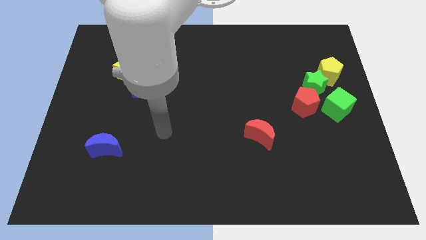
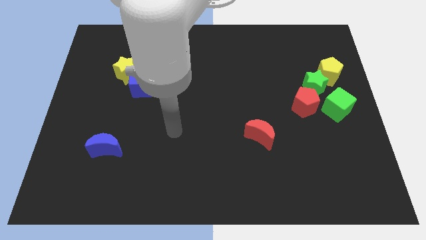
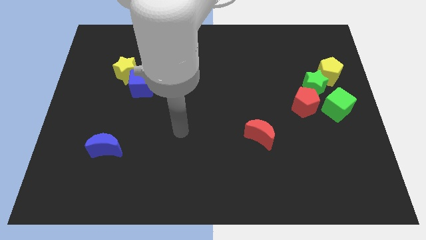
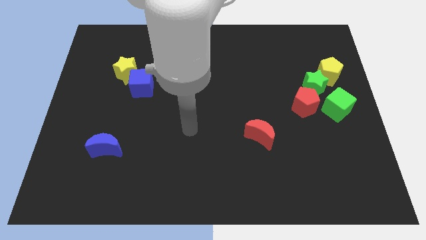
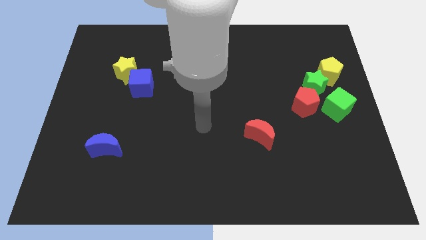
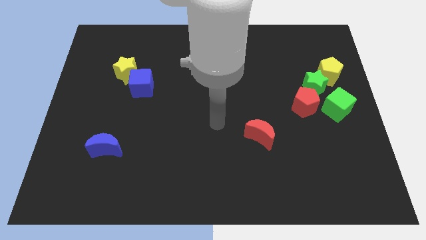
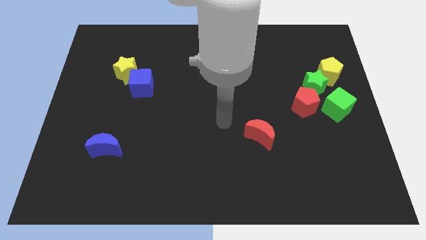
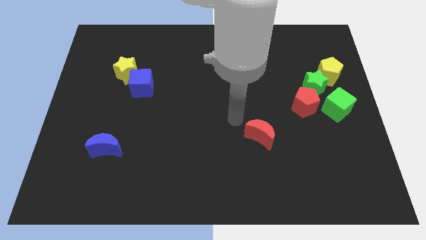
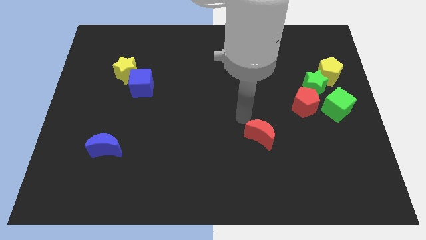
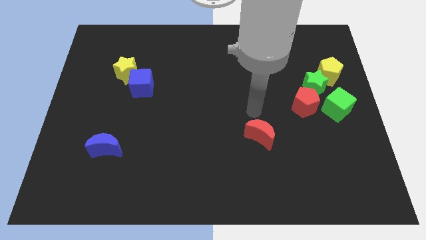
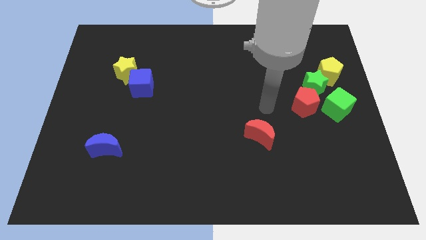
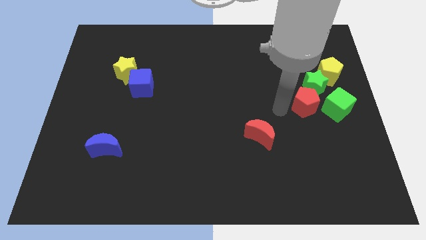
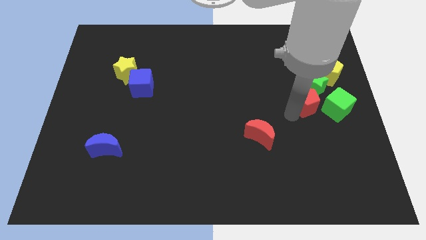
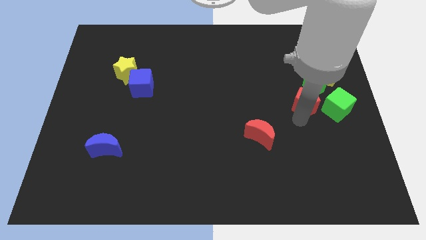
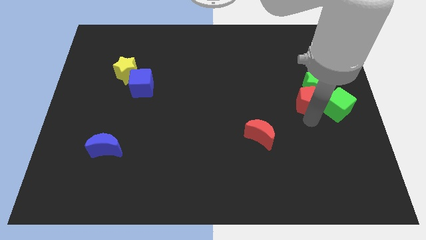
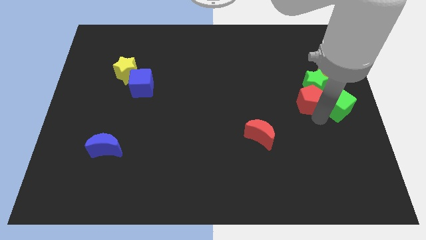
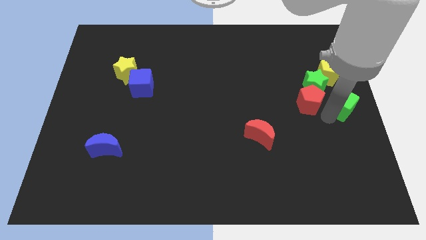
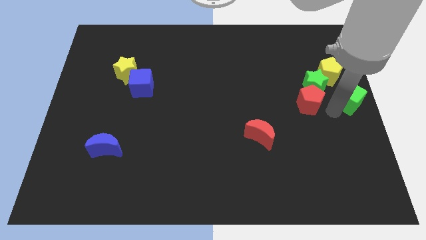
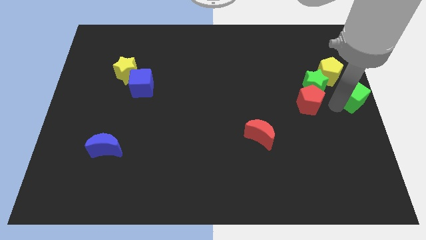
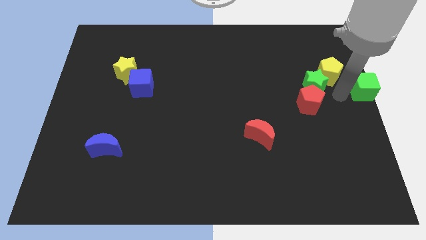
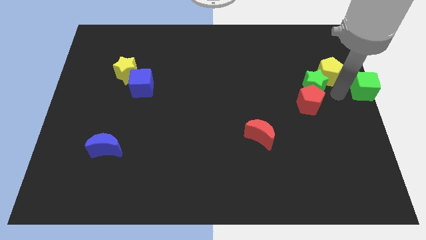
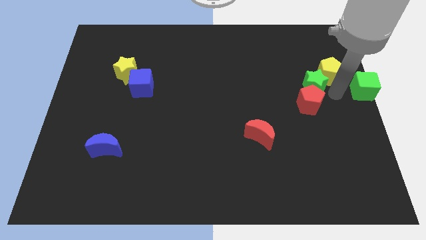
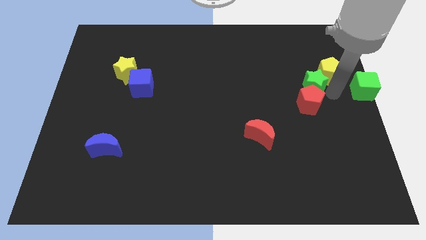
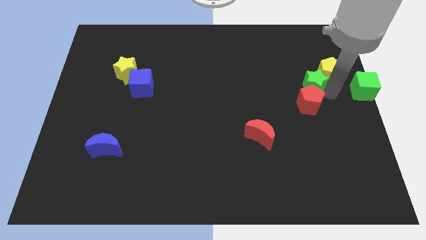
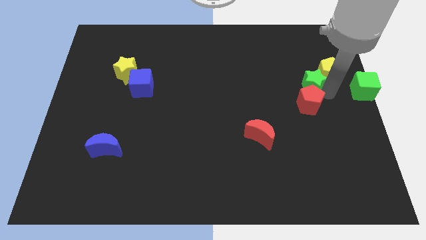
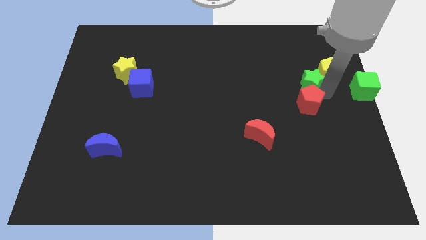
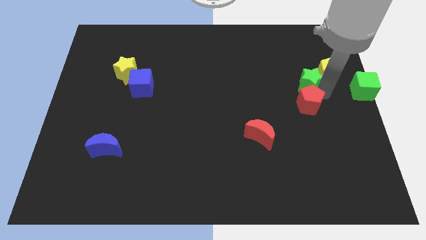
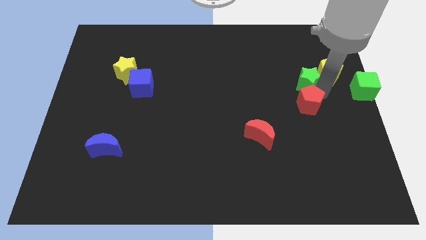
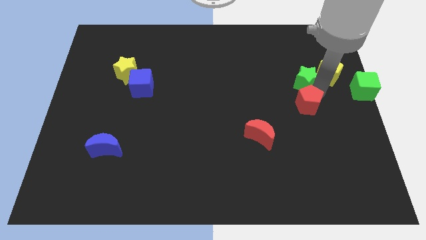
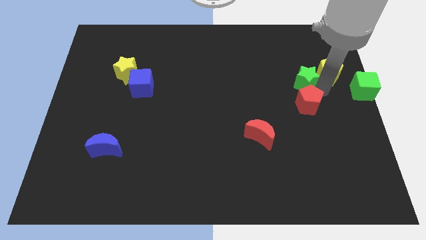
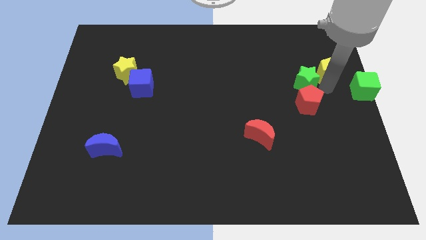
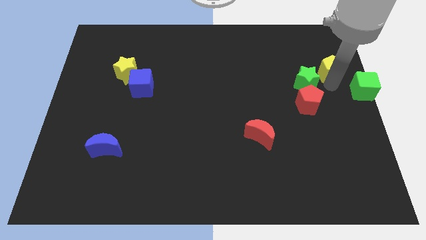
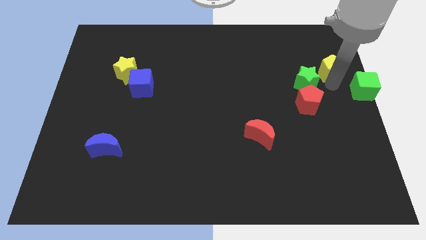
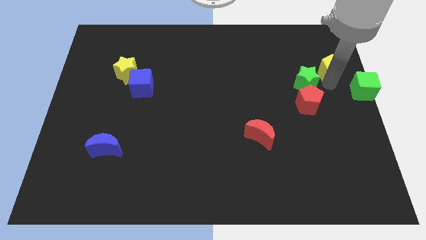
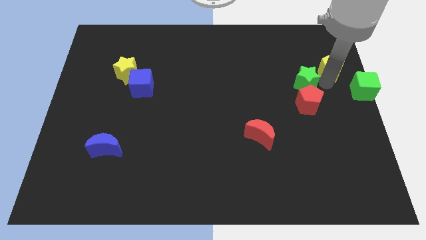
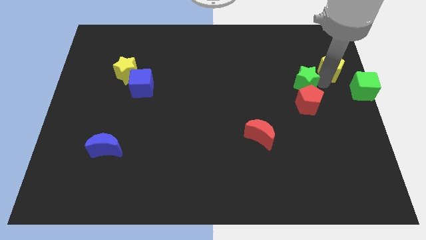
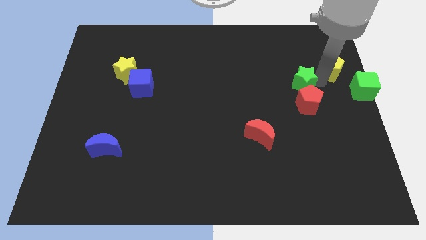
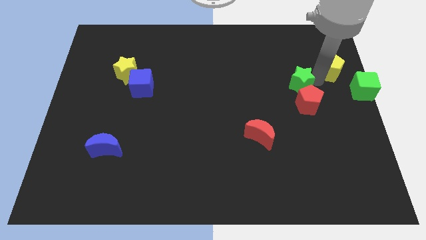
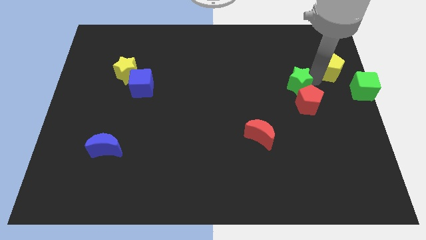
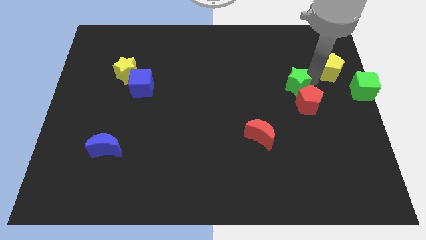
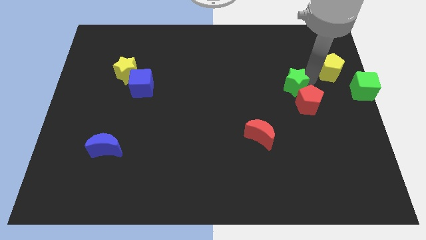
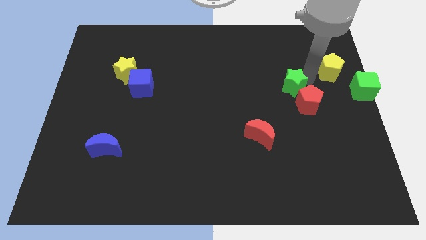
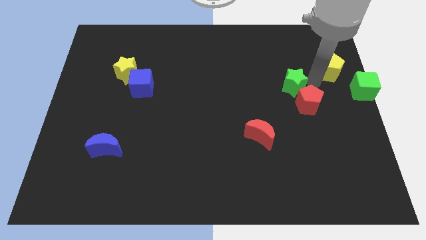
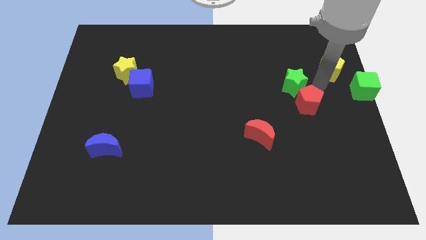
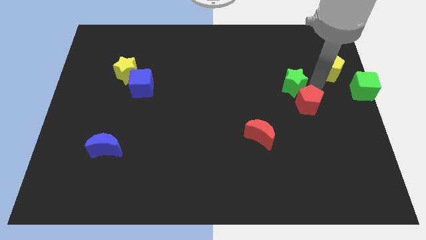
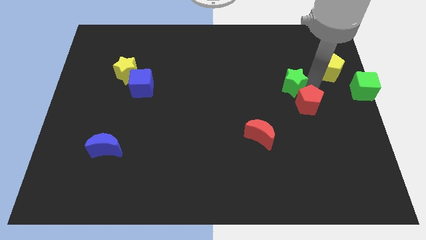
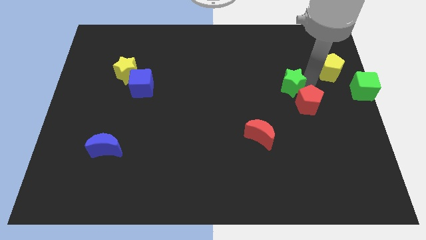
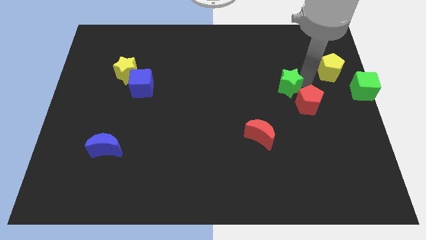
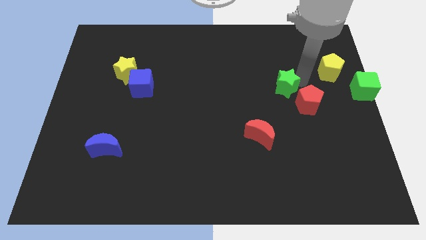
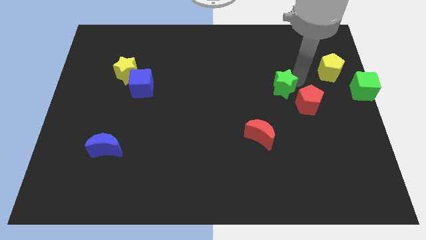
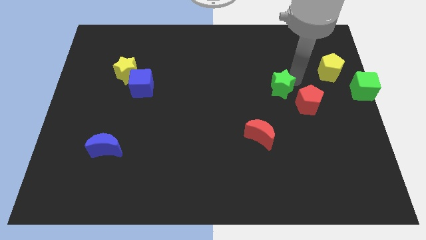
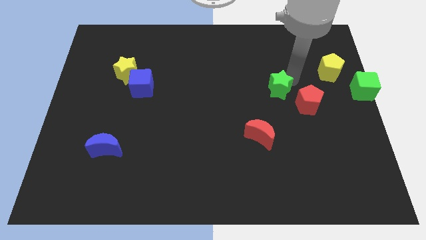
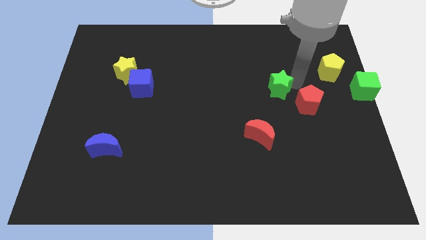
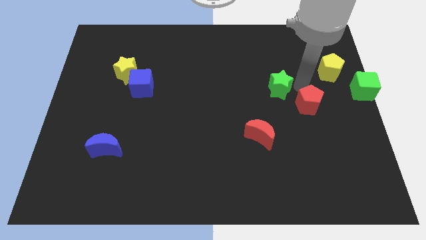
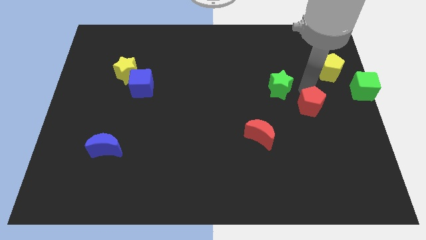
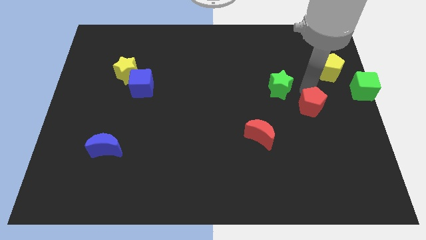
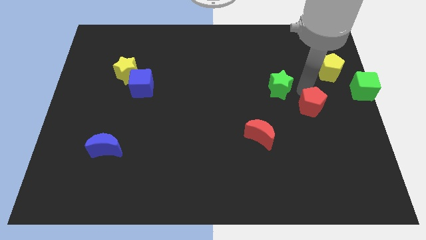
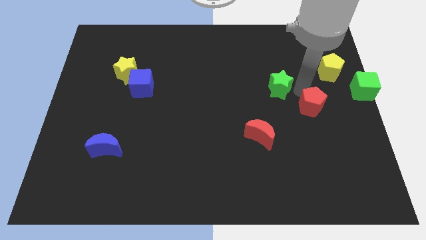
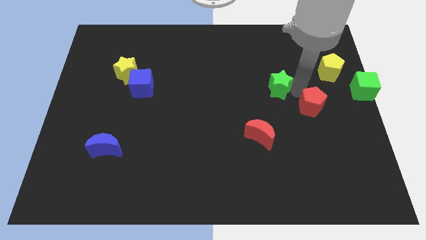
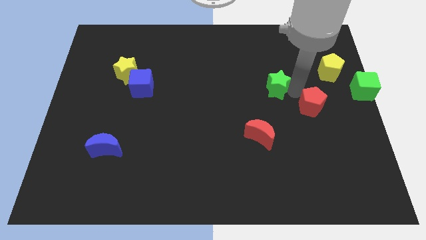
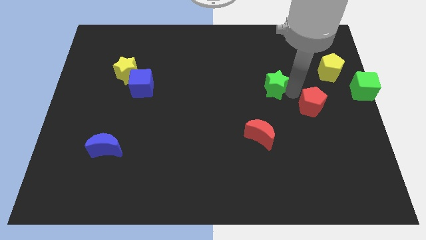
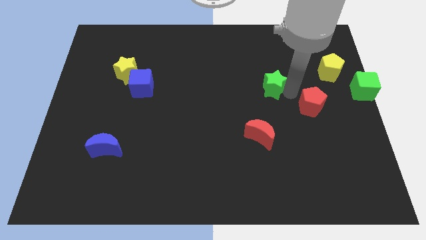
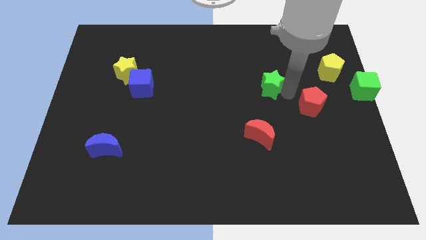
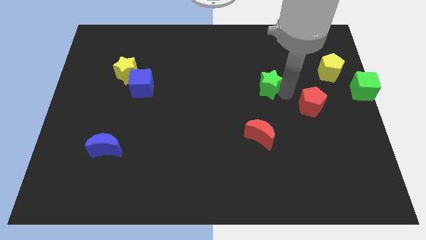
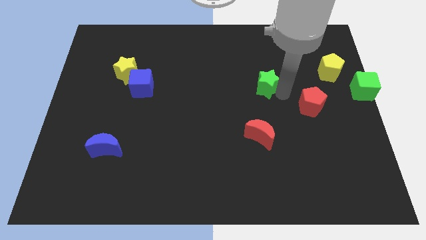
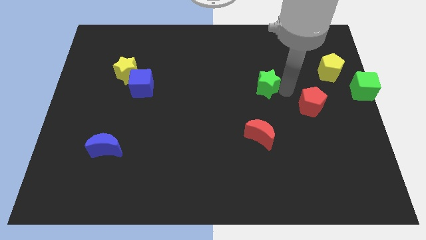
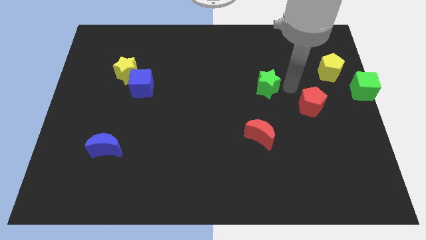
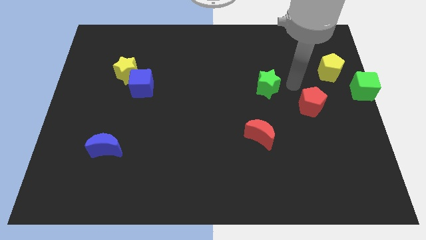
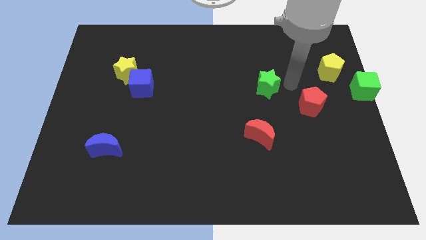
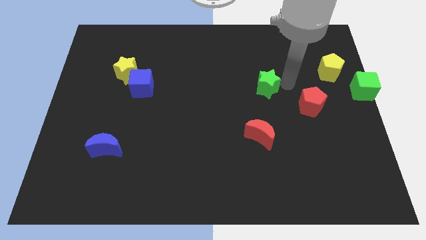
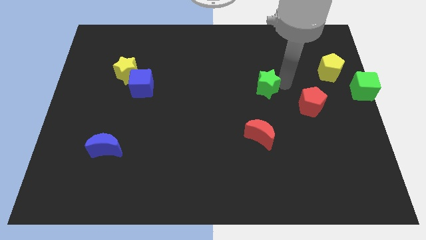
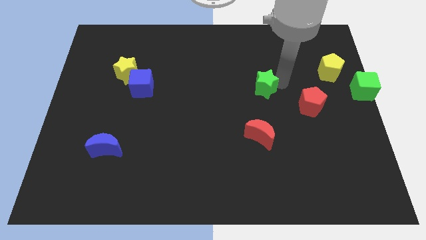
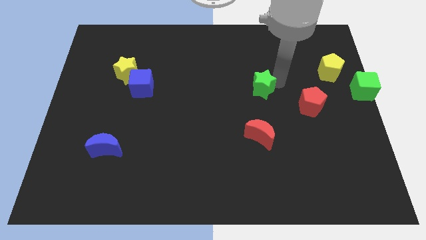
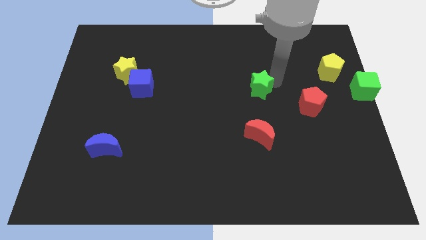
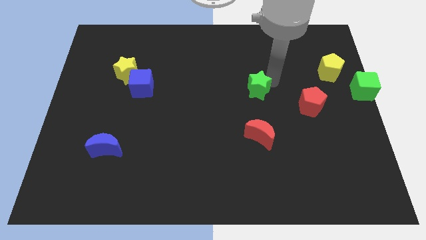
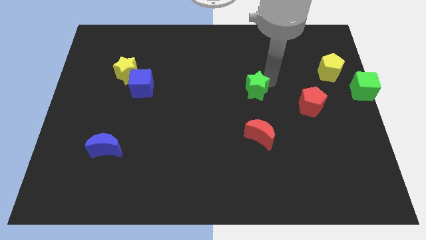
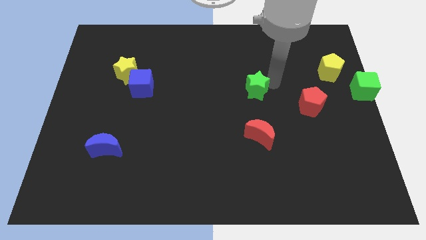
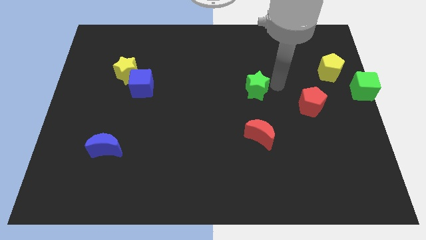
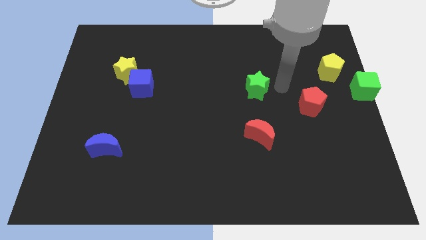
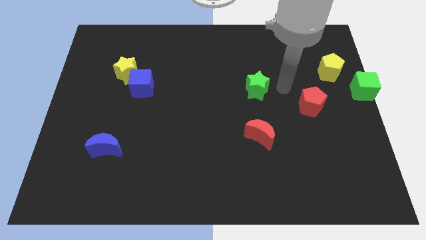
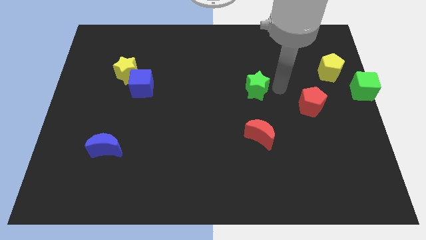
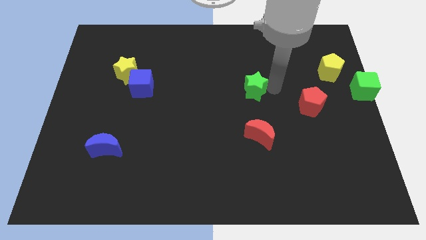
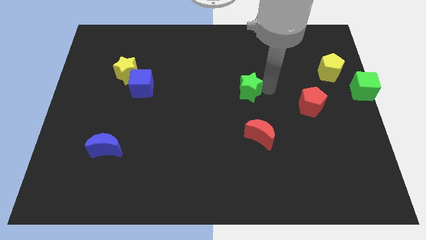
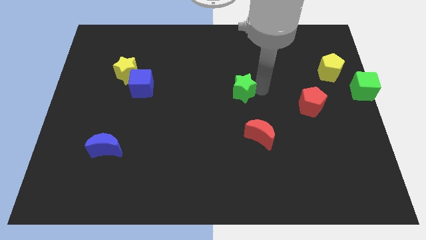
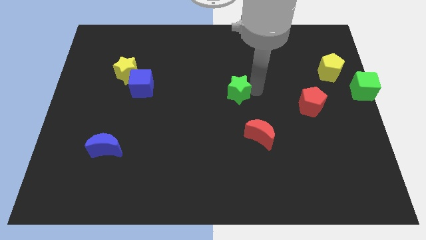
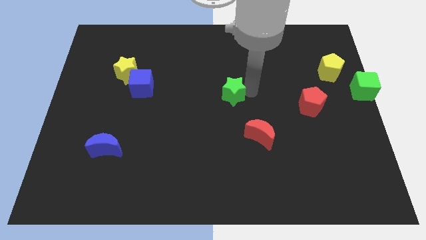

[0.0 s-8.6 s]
push the green star left
